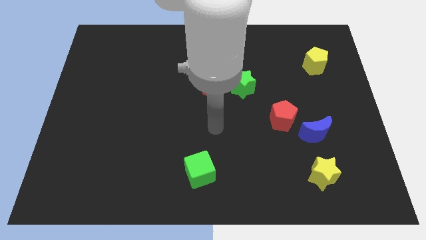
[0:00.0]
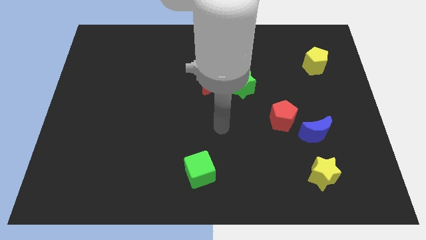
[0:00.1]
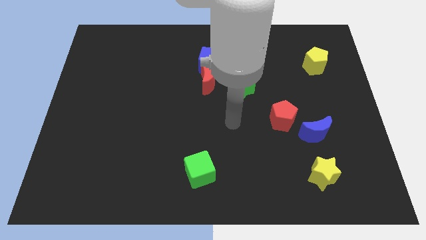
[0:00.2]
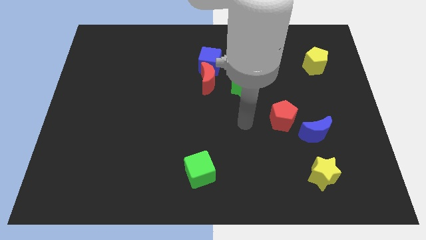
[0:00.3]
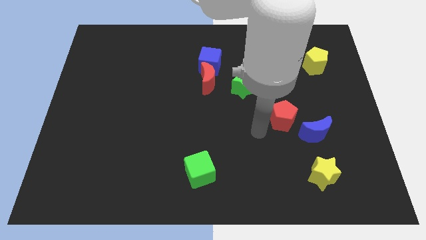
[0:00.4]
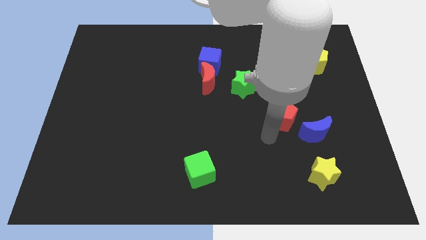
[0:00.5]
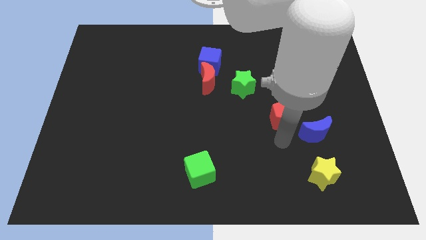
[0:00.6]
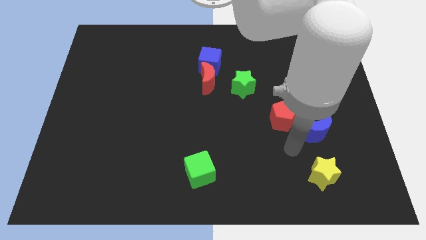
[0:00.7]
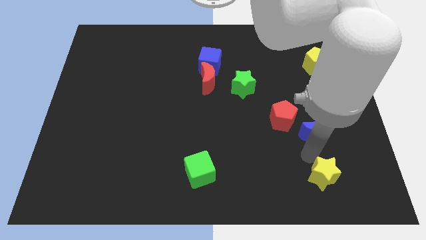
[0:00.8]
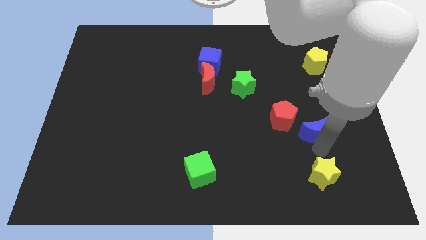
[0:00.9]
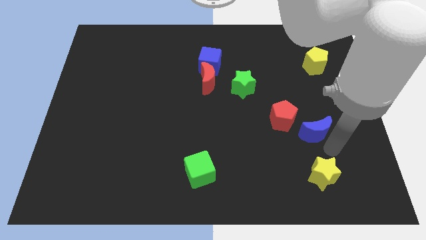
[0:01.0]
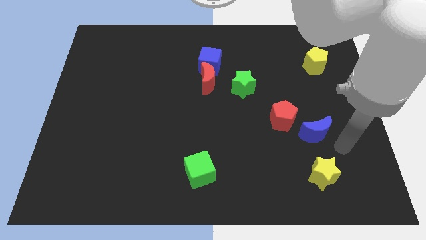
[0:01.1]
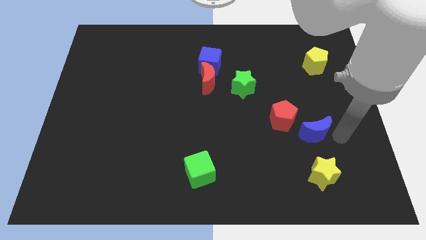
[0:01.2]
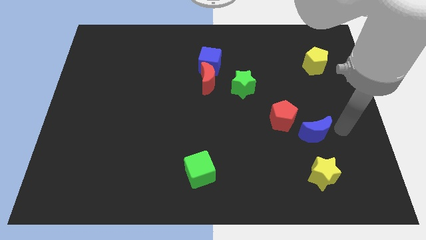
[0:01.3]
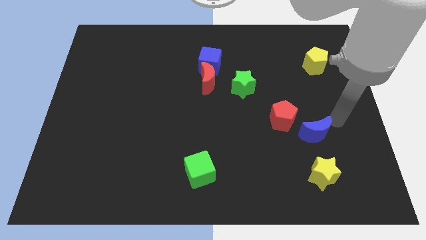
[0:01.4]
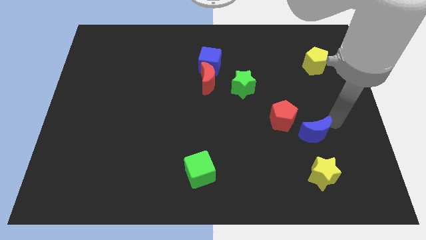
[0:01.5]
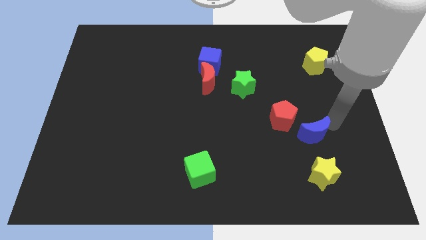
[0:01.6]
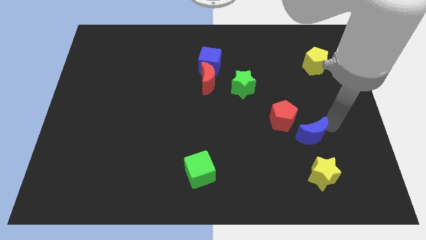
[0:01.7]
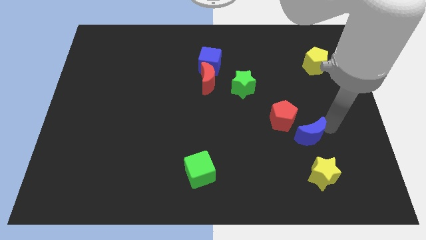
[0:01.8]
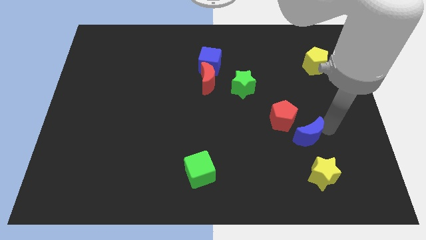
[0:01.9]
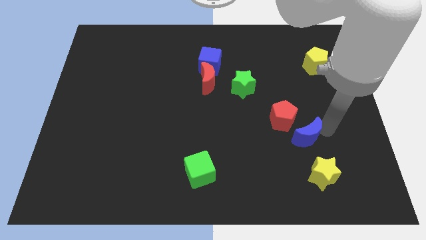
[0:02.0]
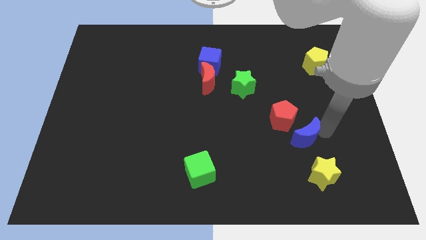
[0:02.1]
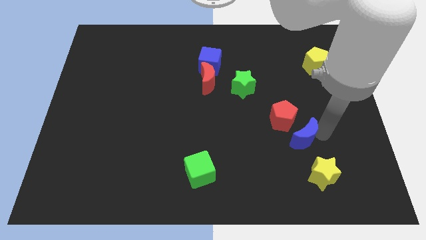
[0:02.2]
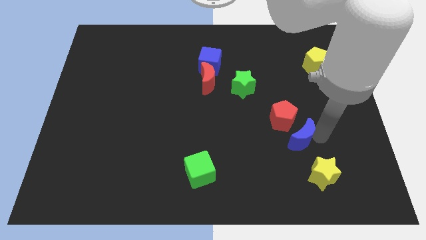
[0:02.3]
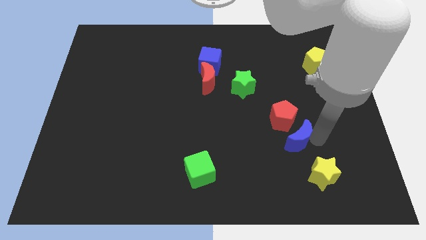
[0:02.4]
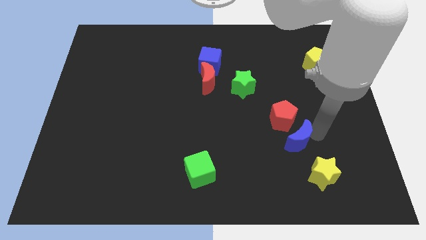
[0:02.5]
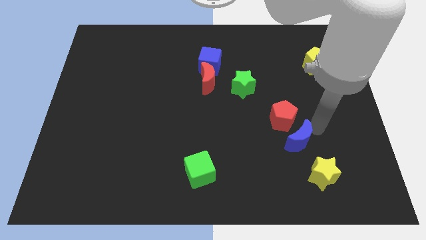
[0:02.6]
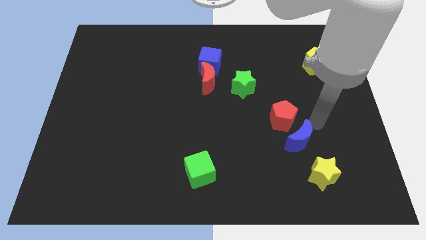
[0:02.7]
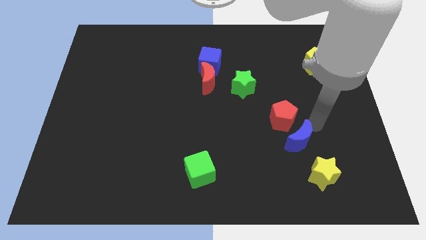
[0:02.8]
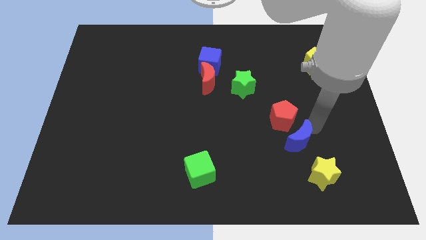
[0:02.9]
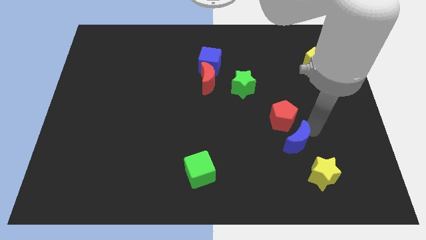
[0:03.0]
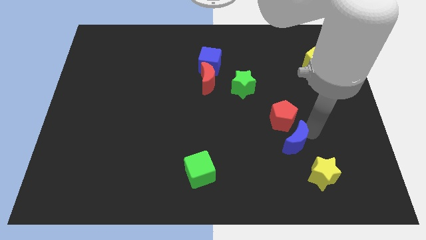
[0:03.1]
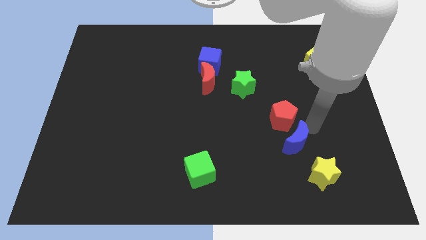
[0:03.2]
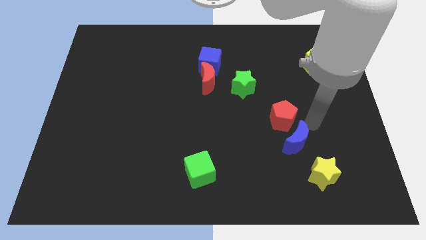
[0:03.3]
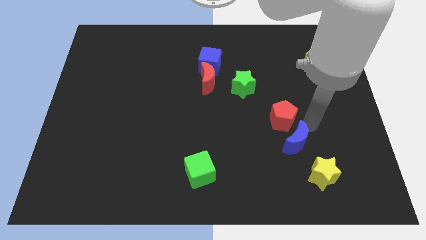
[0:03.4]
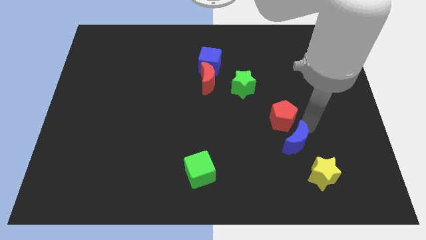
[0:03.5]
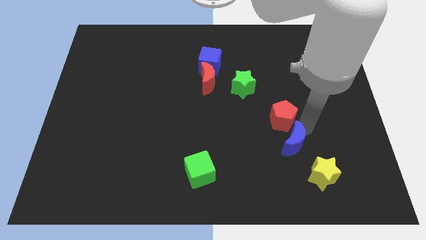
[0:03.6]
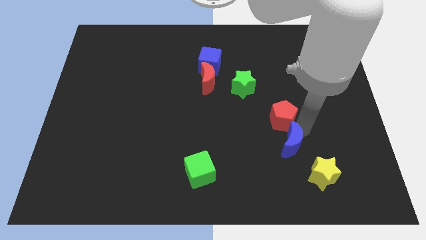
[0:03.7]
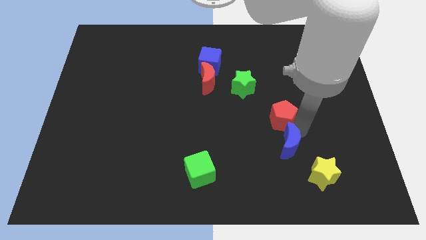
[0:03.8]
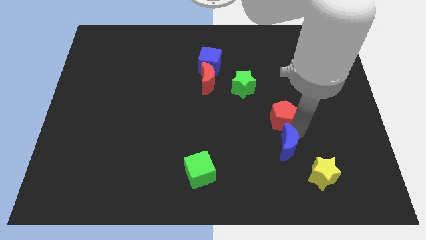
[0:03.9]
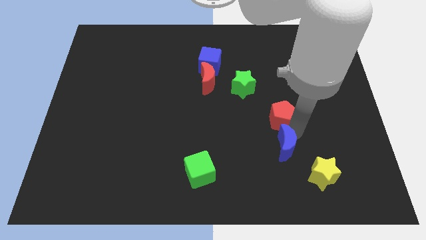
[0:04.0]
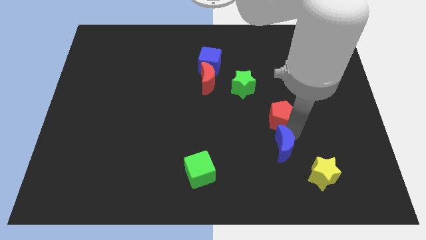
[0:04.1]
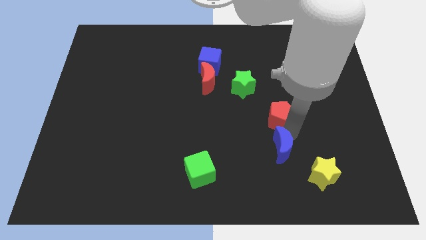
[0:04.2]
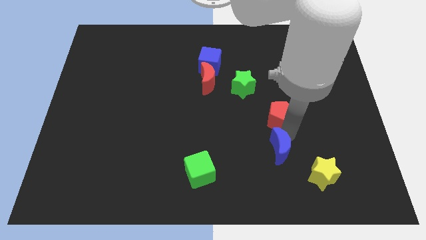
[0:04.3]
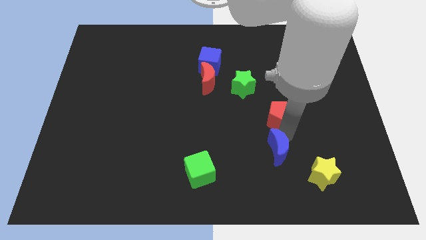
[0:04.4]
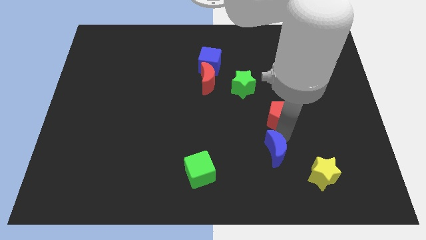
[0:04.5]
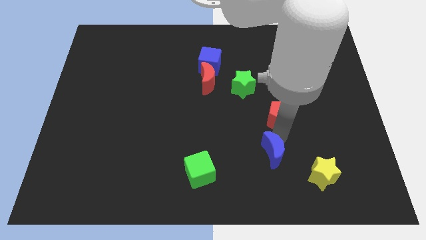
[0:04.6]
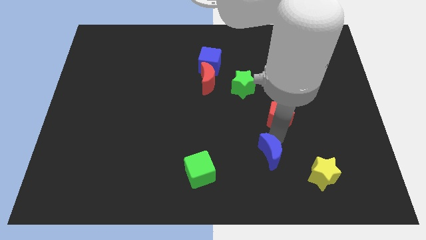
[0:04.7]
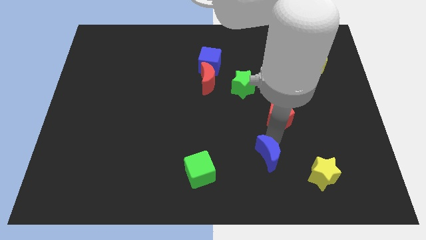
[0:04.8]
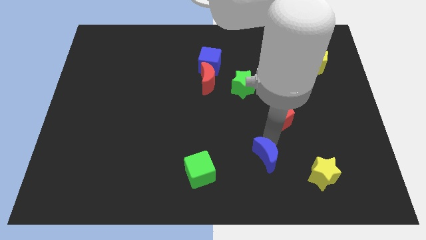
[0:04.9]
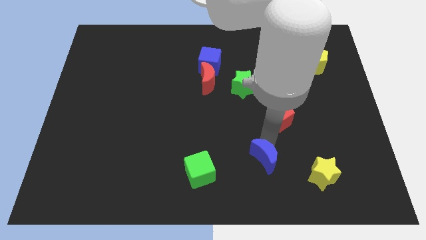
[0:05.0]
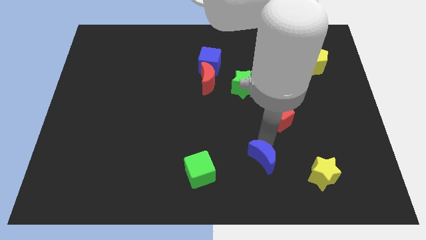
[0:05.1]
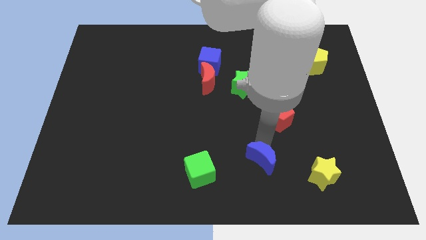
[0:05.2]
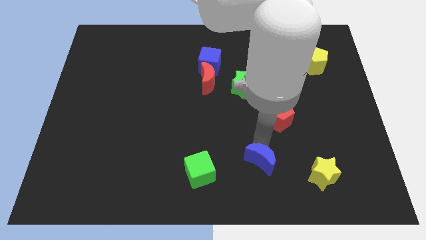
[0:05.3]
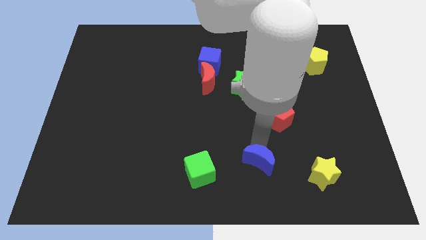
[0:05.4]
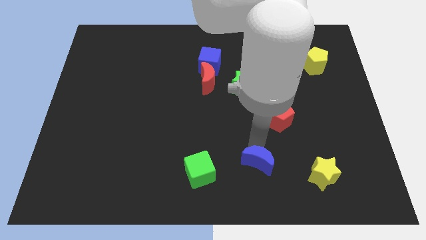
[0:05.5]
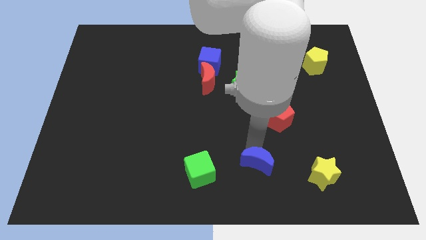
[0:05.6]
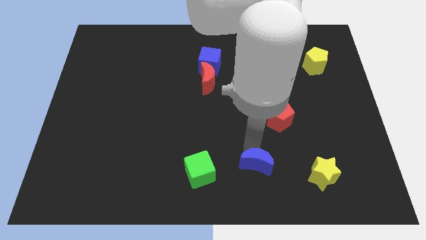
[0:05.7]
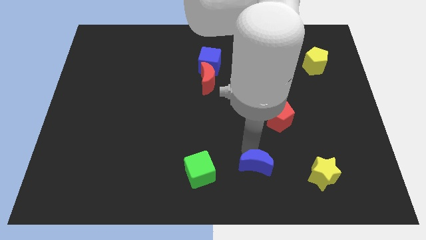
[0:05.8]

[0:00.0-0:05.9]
move the blue moon to the bottom

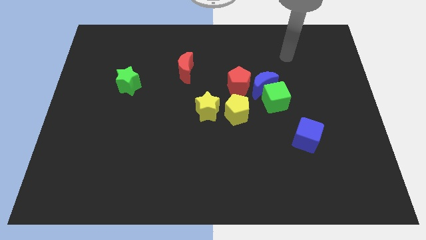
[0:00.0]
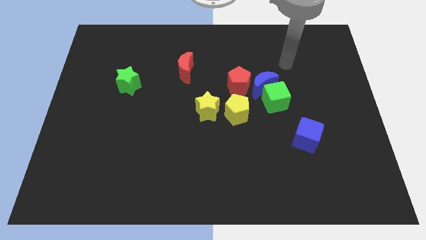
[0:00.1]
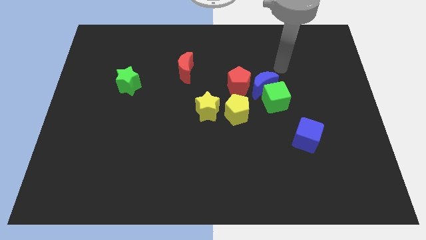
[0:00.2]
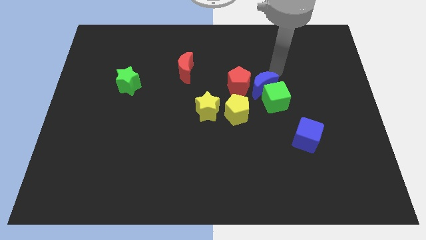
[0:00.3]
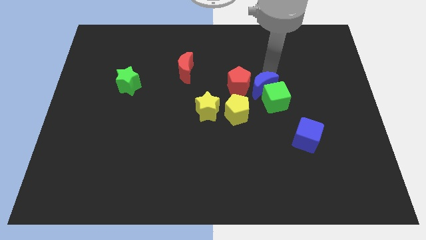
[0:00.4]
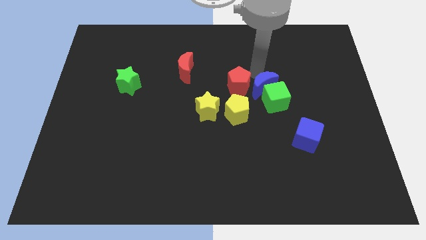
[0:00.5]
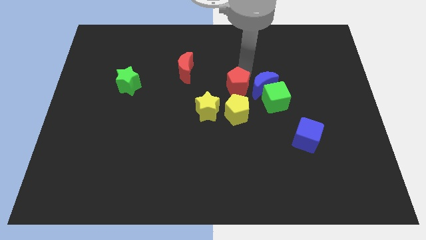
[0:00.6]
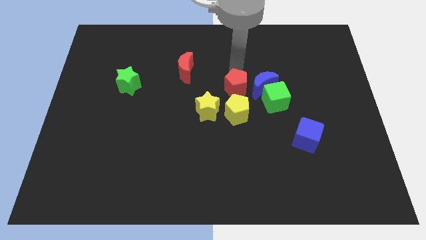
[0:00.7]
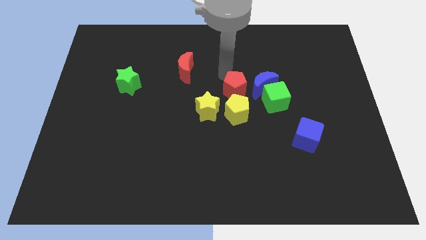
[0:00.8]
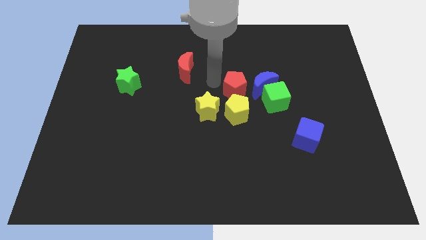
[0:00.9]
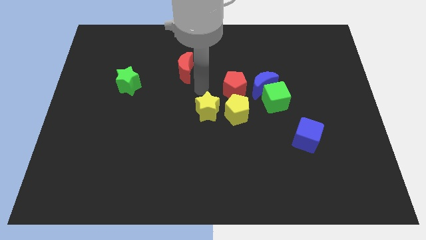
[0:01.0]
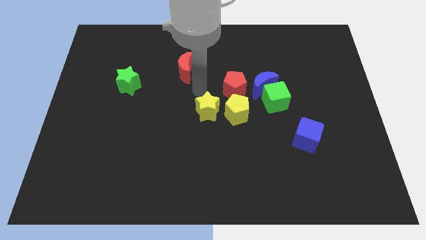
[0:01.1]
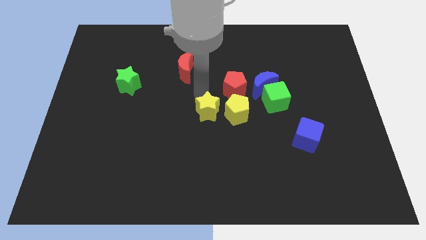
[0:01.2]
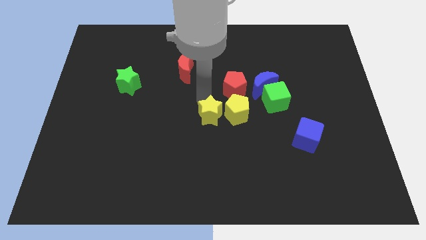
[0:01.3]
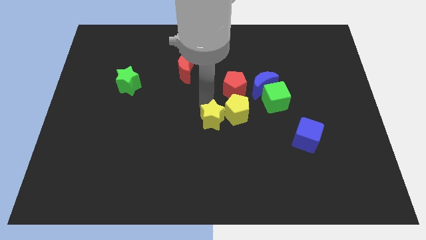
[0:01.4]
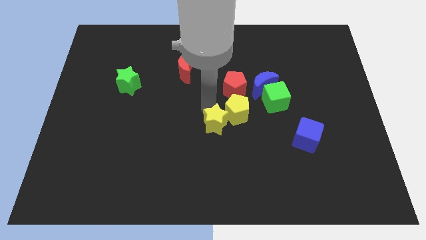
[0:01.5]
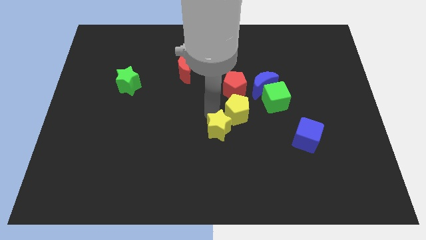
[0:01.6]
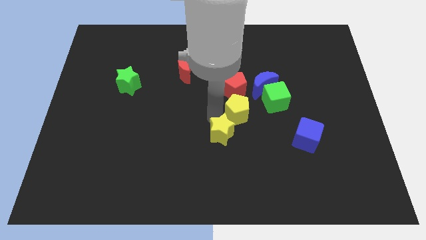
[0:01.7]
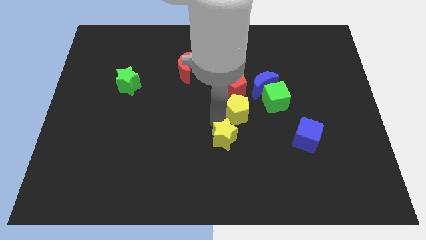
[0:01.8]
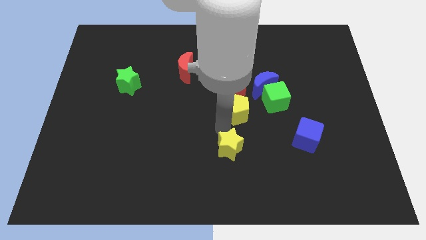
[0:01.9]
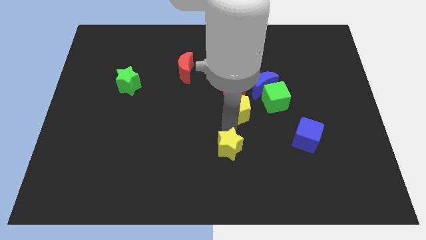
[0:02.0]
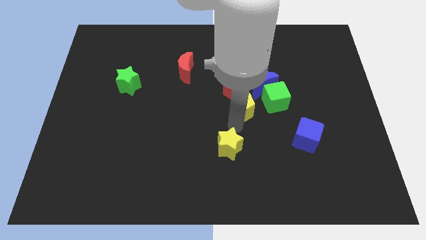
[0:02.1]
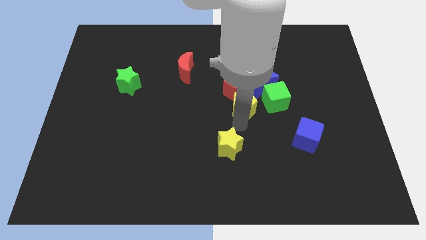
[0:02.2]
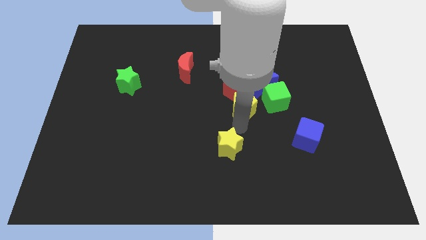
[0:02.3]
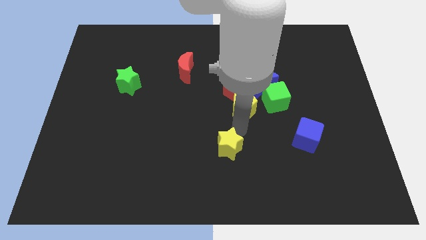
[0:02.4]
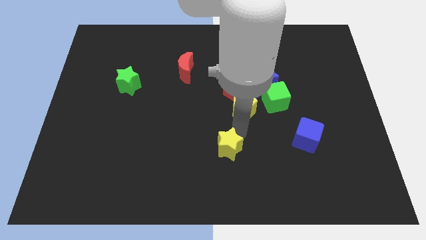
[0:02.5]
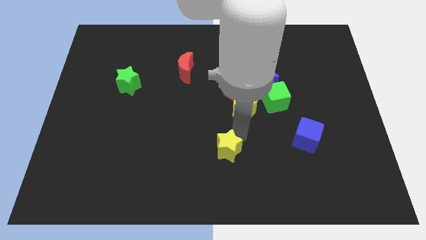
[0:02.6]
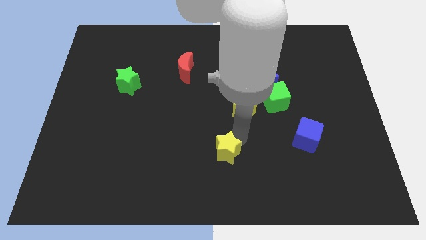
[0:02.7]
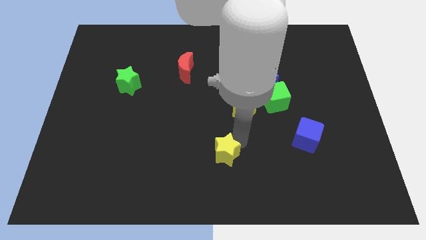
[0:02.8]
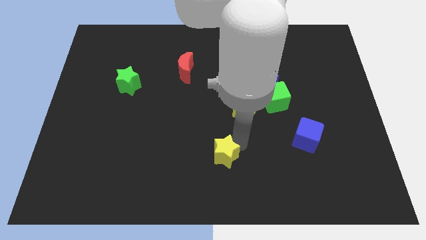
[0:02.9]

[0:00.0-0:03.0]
slide the yellow star to the bottom
